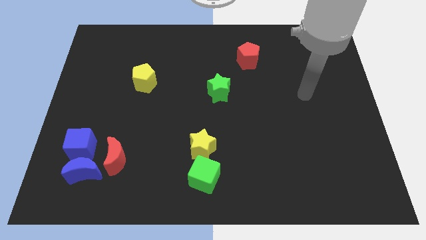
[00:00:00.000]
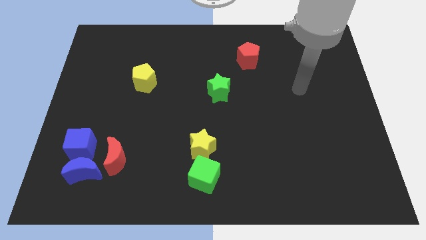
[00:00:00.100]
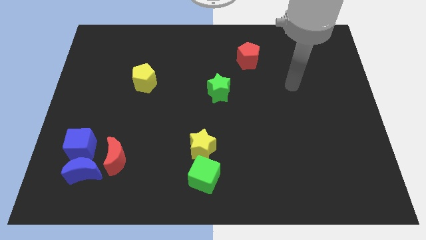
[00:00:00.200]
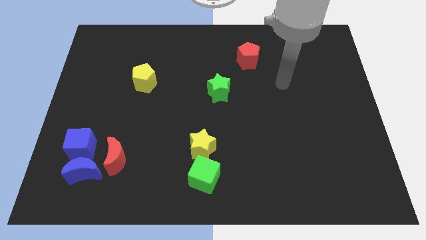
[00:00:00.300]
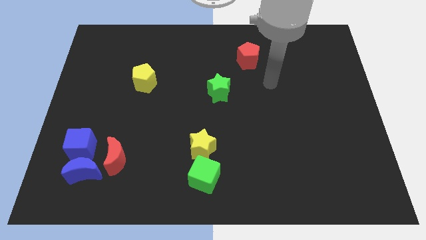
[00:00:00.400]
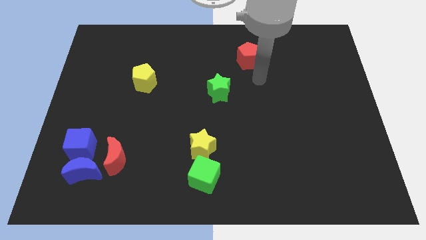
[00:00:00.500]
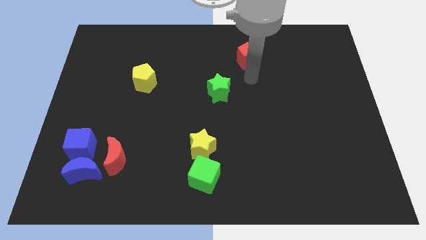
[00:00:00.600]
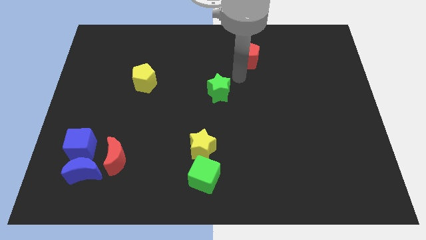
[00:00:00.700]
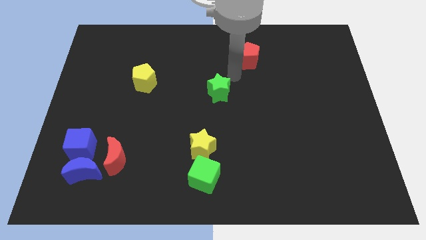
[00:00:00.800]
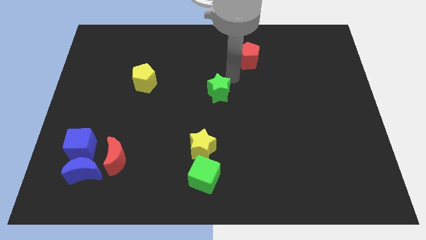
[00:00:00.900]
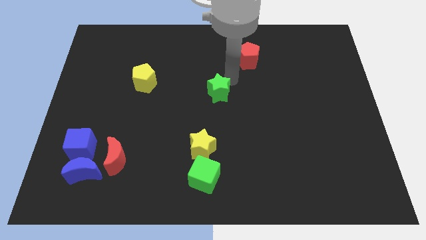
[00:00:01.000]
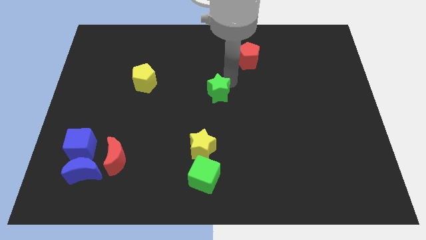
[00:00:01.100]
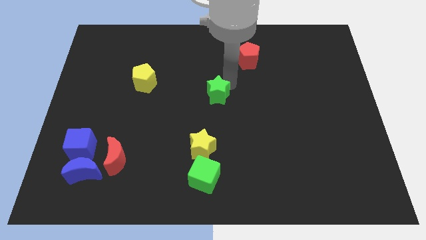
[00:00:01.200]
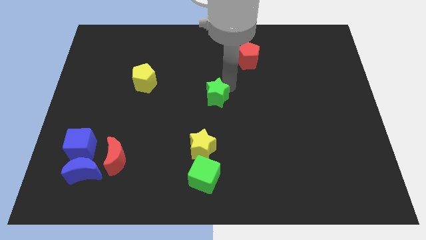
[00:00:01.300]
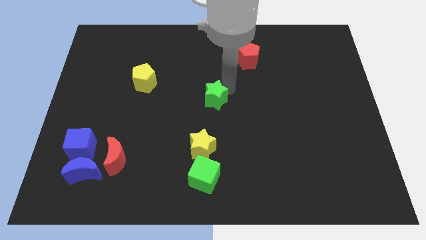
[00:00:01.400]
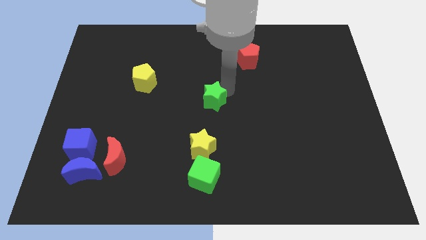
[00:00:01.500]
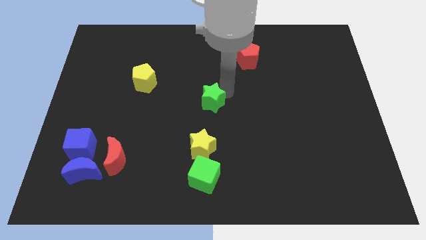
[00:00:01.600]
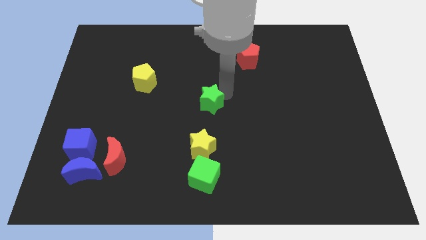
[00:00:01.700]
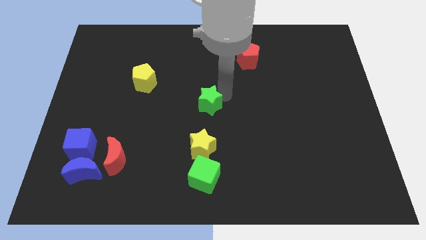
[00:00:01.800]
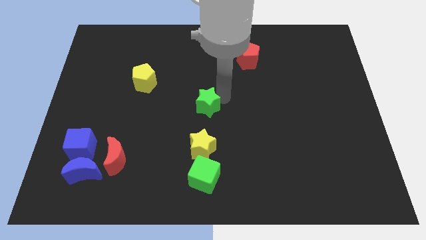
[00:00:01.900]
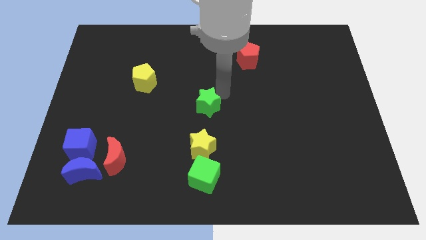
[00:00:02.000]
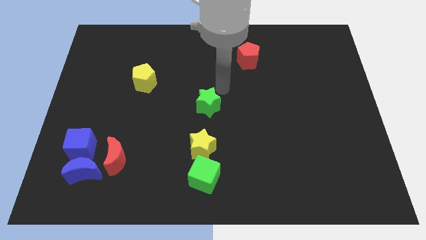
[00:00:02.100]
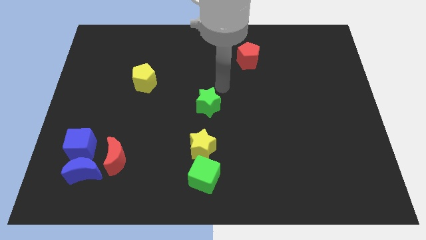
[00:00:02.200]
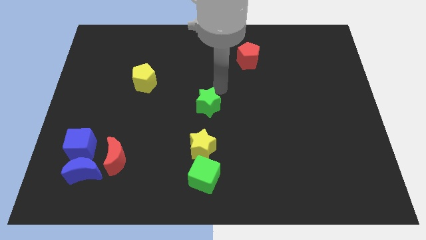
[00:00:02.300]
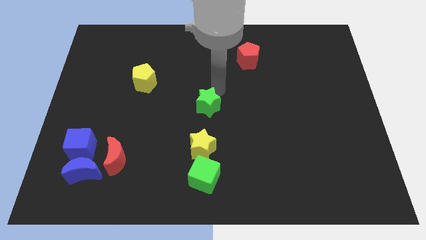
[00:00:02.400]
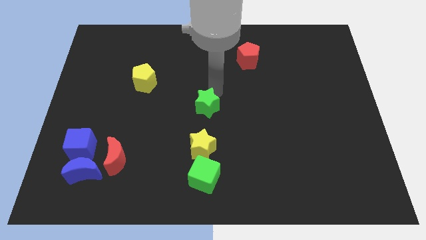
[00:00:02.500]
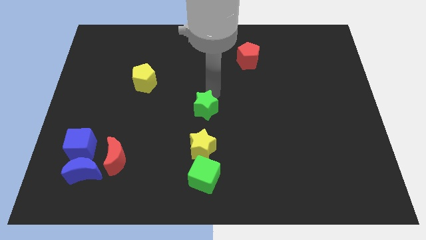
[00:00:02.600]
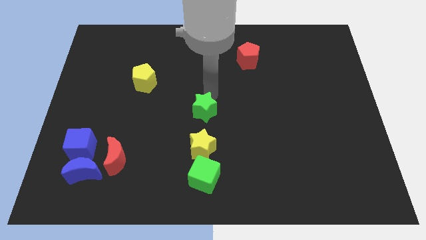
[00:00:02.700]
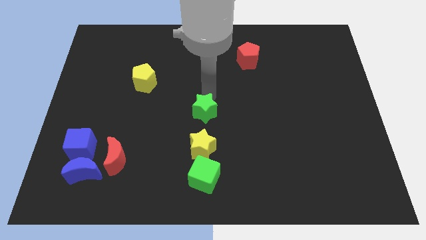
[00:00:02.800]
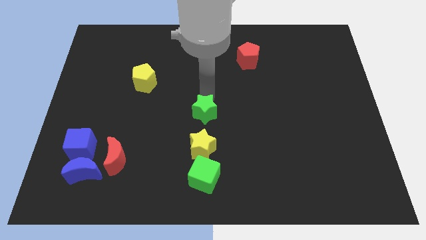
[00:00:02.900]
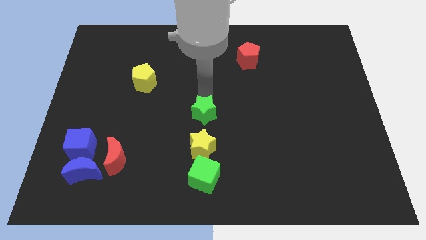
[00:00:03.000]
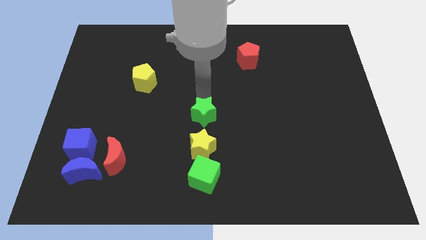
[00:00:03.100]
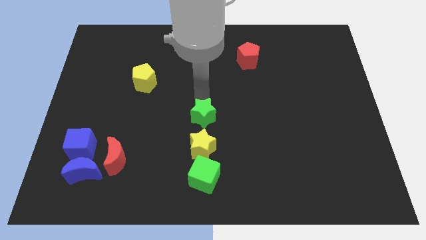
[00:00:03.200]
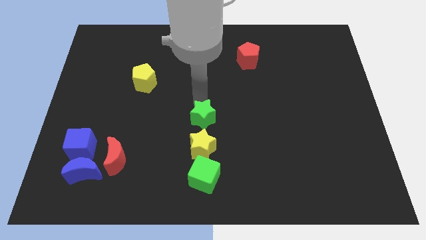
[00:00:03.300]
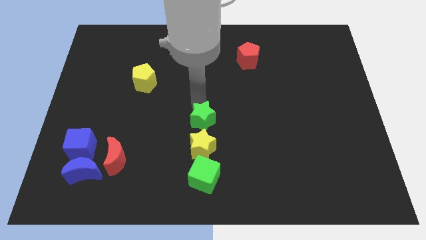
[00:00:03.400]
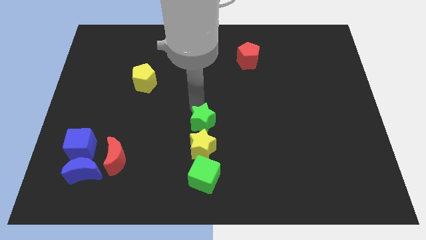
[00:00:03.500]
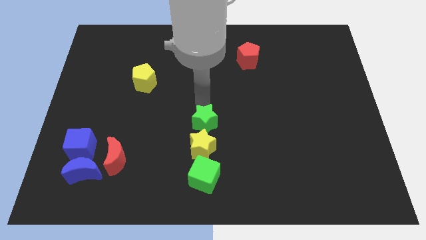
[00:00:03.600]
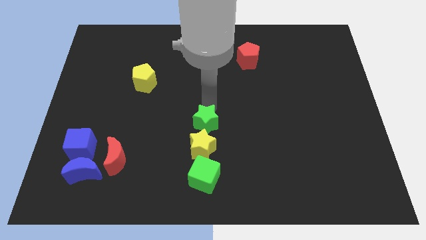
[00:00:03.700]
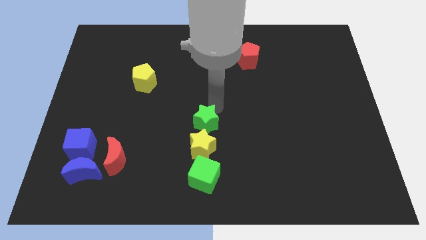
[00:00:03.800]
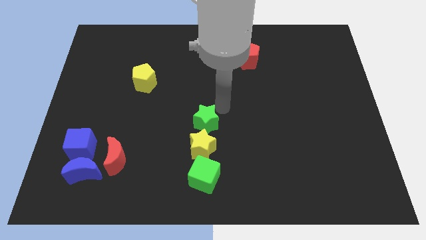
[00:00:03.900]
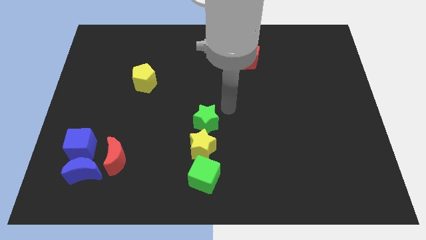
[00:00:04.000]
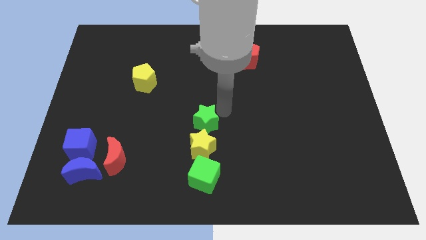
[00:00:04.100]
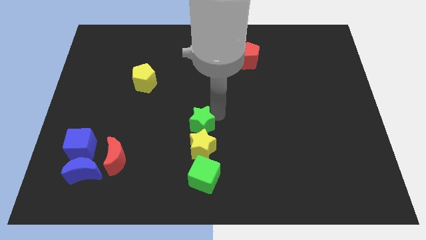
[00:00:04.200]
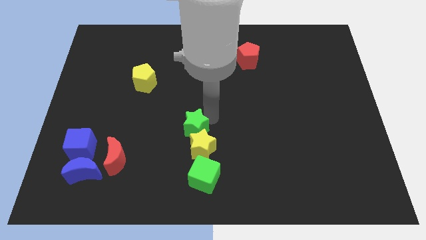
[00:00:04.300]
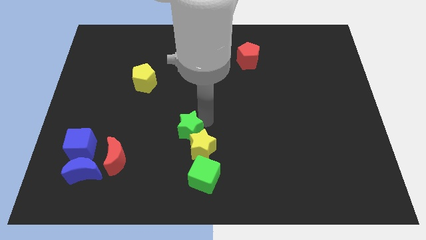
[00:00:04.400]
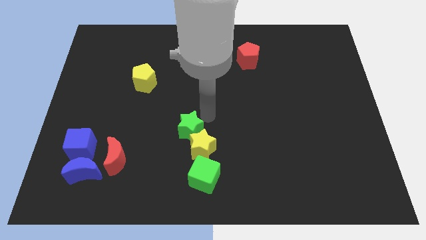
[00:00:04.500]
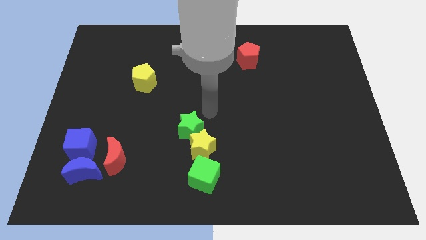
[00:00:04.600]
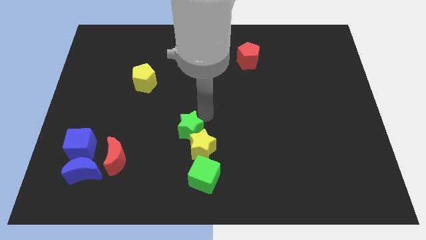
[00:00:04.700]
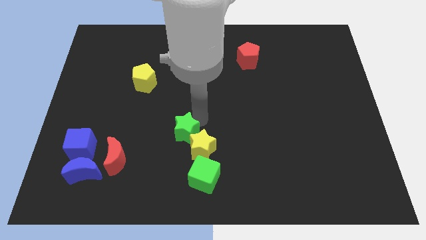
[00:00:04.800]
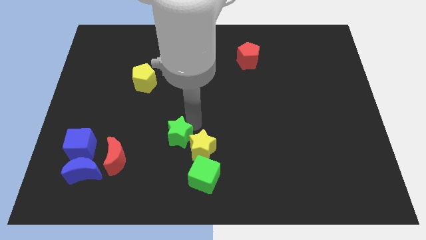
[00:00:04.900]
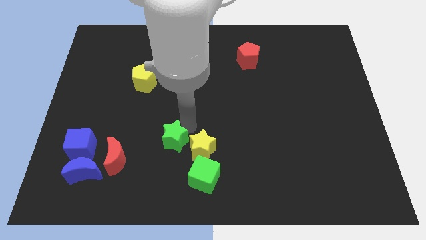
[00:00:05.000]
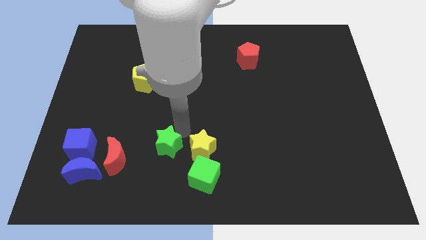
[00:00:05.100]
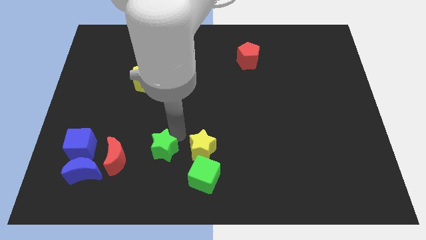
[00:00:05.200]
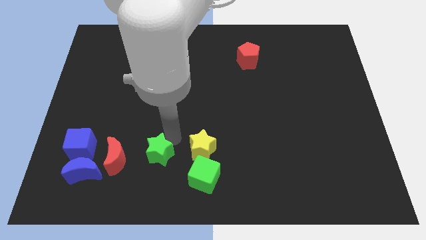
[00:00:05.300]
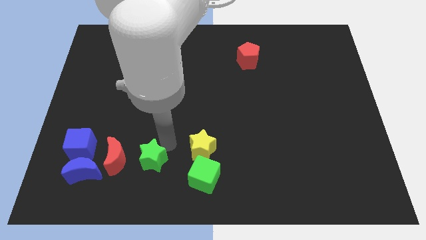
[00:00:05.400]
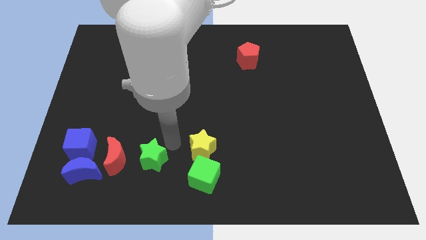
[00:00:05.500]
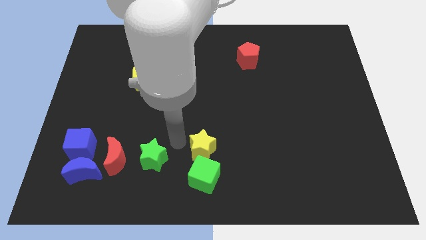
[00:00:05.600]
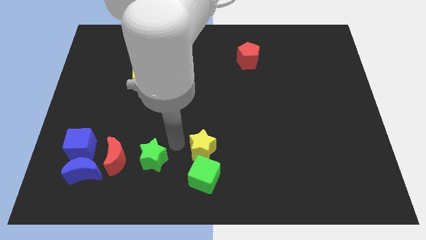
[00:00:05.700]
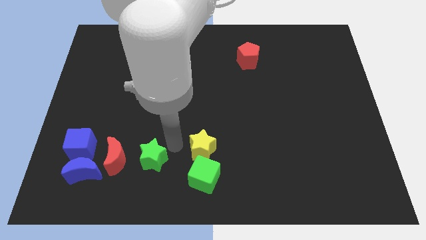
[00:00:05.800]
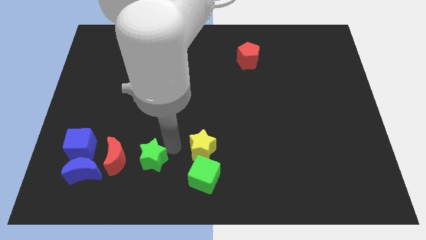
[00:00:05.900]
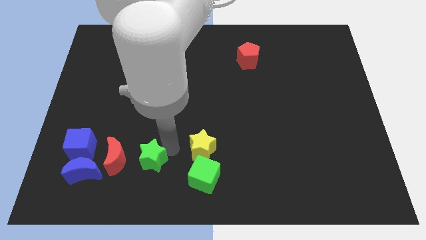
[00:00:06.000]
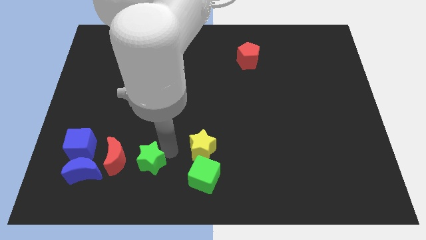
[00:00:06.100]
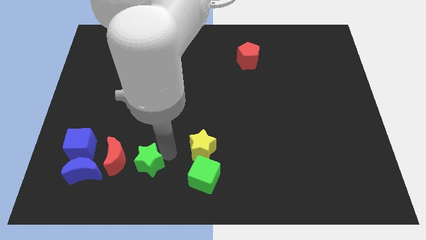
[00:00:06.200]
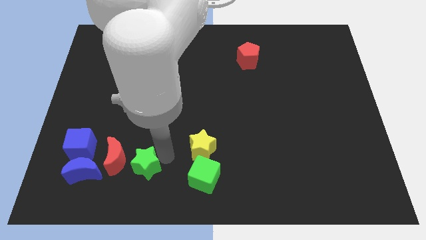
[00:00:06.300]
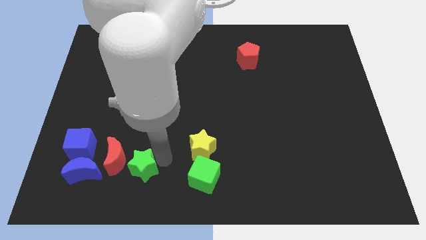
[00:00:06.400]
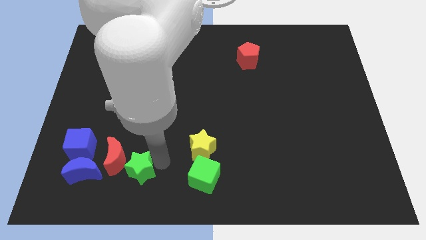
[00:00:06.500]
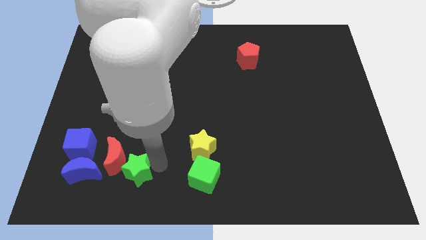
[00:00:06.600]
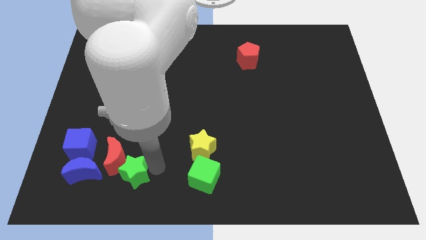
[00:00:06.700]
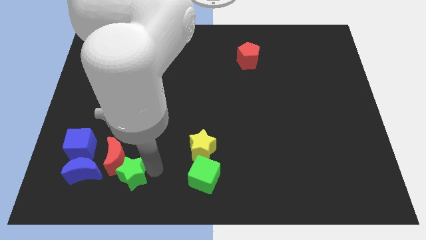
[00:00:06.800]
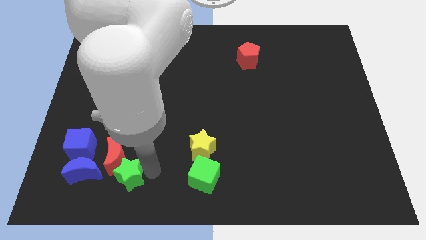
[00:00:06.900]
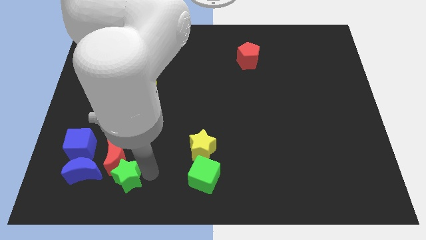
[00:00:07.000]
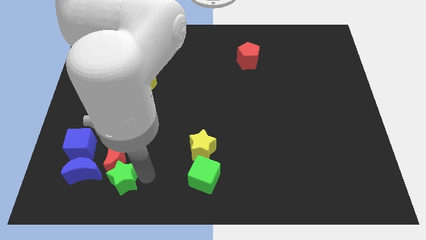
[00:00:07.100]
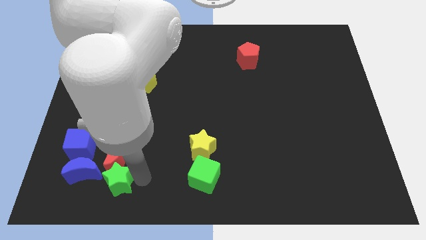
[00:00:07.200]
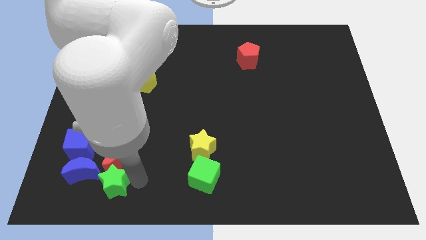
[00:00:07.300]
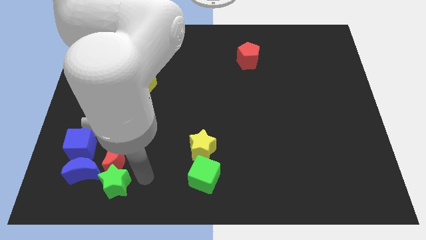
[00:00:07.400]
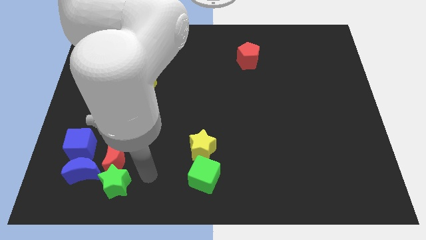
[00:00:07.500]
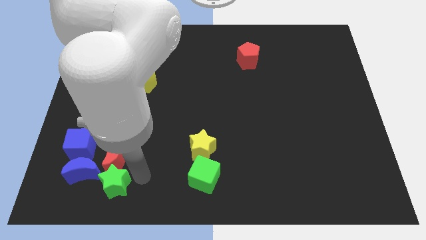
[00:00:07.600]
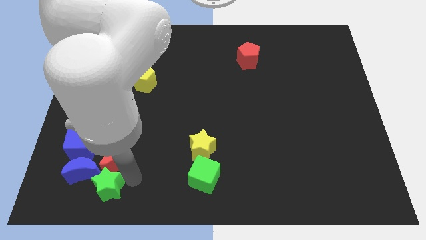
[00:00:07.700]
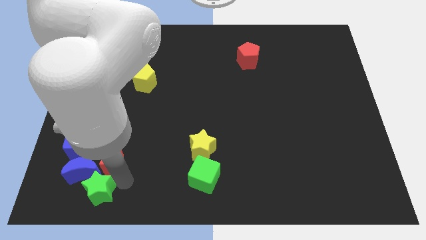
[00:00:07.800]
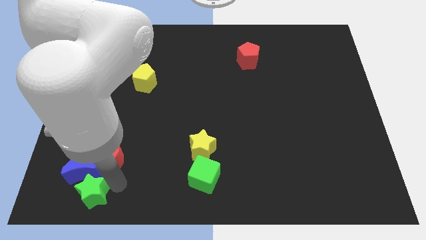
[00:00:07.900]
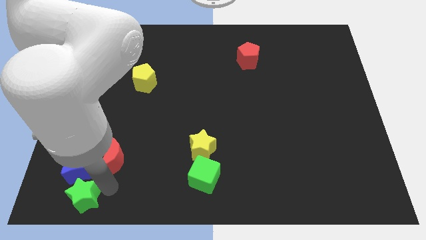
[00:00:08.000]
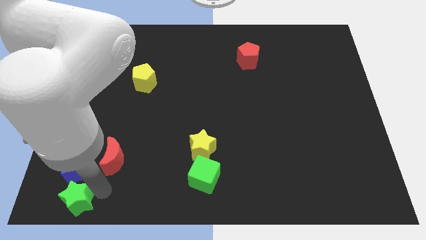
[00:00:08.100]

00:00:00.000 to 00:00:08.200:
put the green star to the lower left corner
